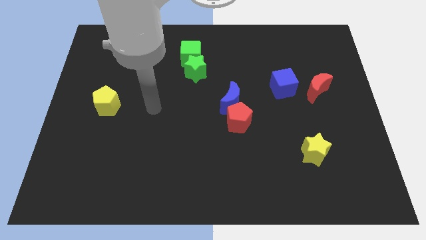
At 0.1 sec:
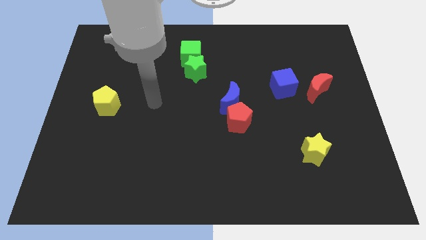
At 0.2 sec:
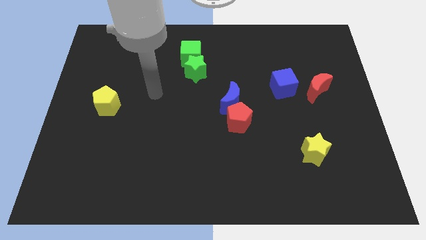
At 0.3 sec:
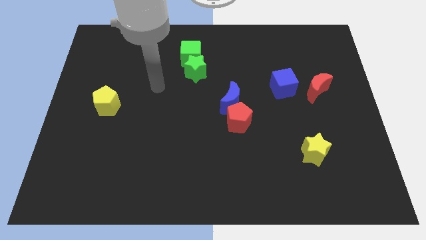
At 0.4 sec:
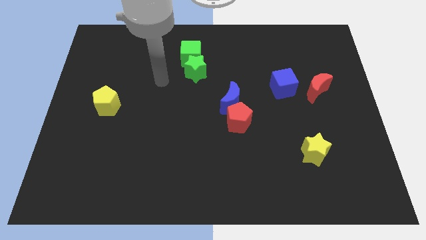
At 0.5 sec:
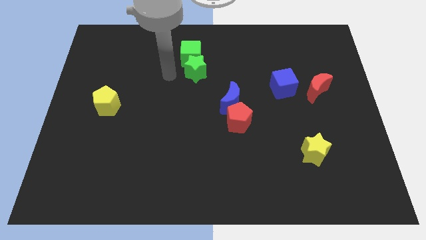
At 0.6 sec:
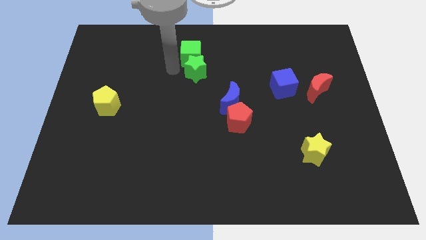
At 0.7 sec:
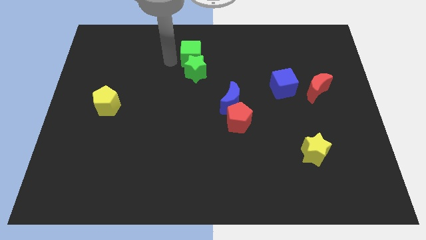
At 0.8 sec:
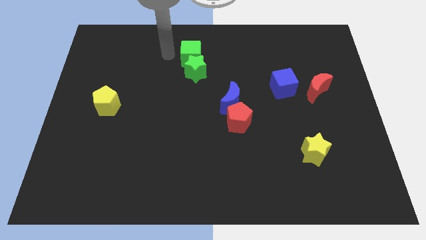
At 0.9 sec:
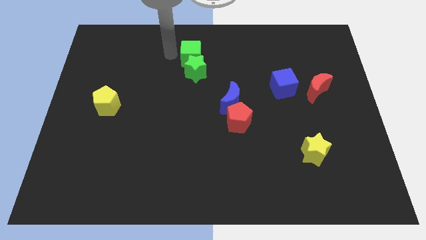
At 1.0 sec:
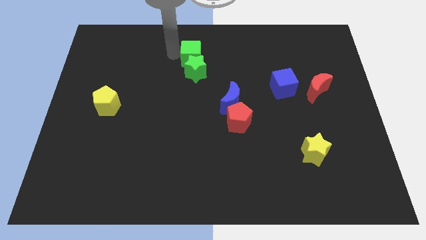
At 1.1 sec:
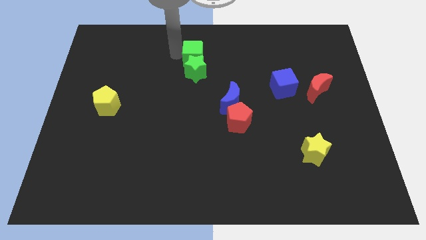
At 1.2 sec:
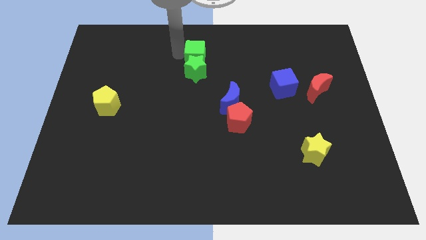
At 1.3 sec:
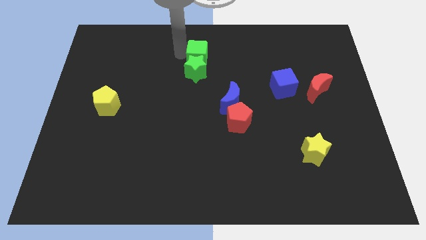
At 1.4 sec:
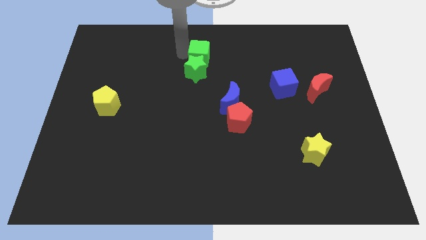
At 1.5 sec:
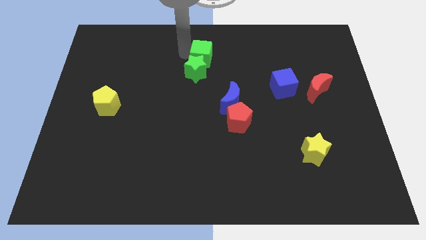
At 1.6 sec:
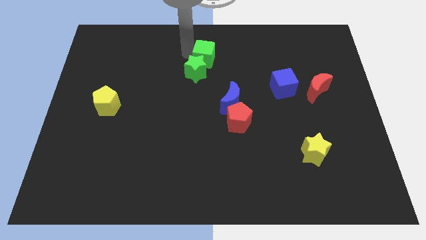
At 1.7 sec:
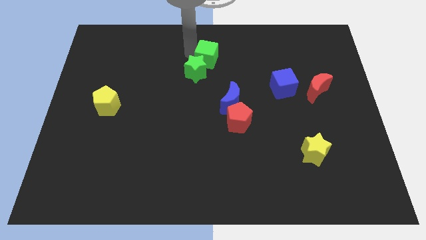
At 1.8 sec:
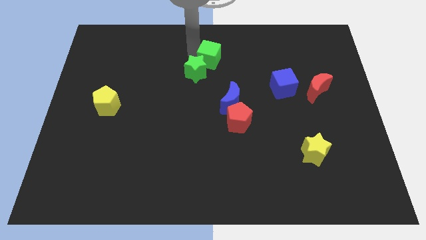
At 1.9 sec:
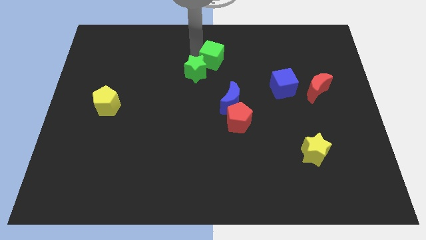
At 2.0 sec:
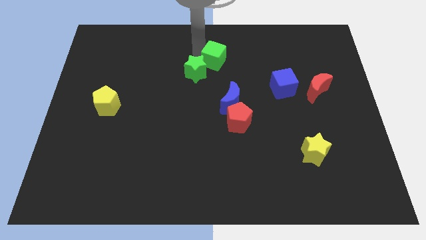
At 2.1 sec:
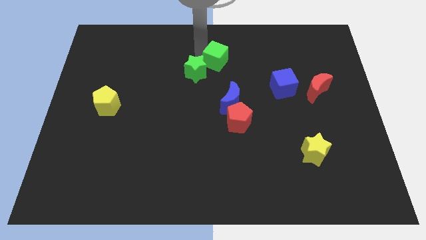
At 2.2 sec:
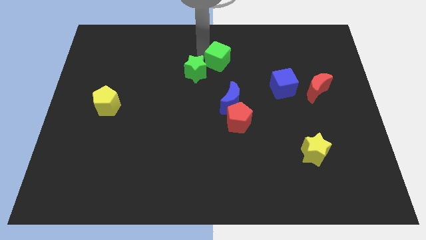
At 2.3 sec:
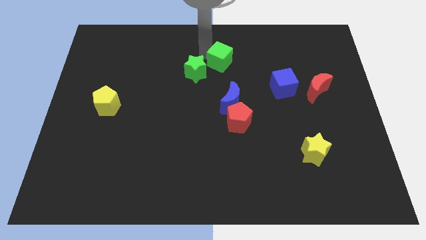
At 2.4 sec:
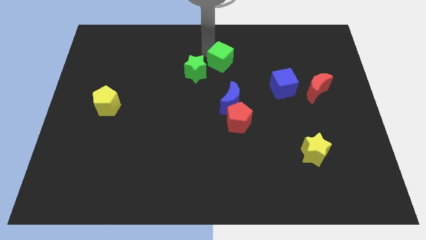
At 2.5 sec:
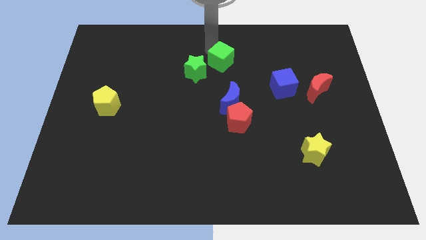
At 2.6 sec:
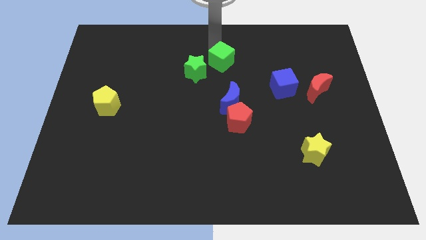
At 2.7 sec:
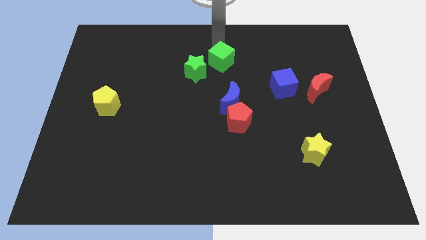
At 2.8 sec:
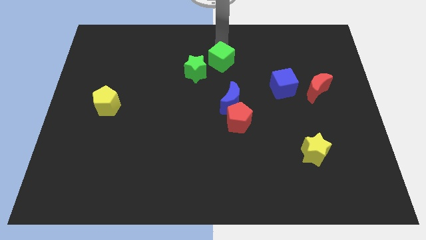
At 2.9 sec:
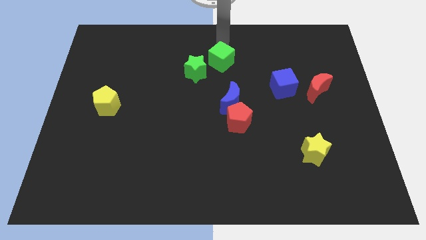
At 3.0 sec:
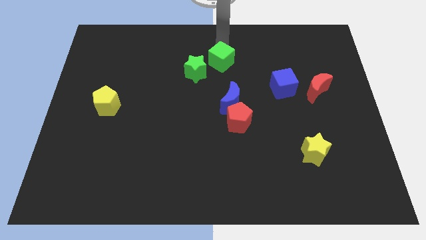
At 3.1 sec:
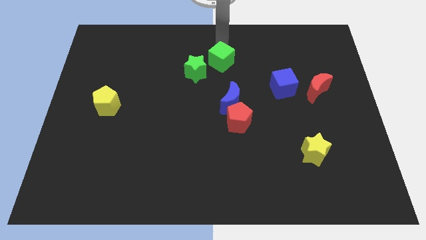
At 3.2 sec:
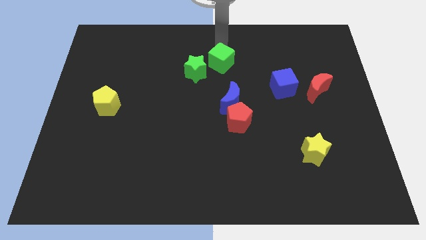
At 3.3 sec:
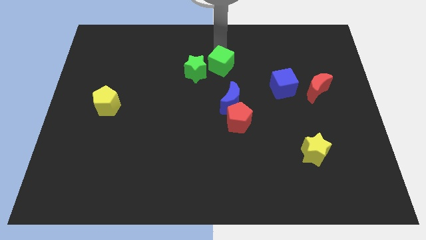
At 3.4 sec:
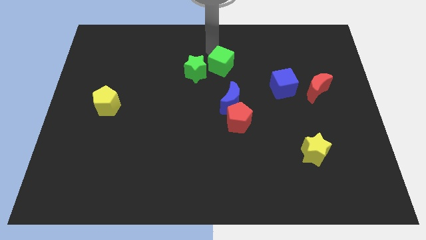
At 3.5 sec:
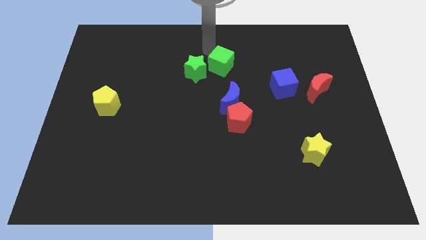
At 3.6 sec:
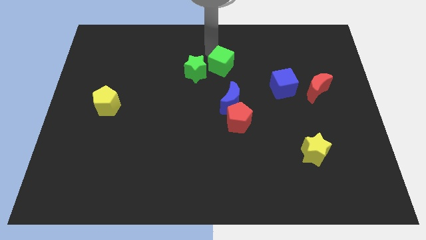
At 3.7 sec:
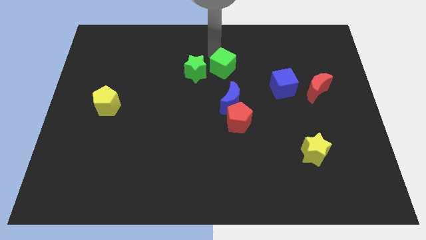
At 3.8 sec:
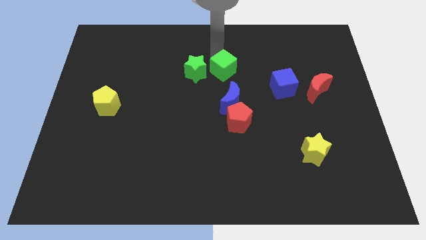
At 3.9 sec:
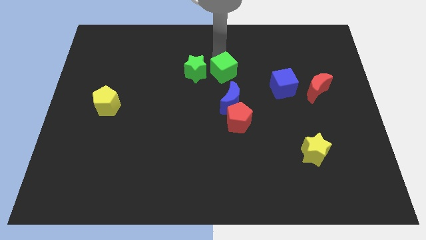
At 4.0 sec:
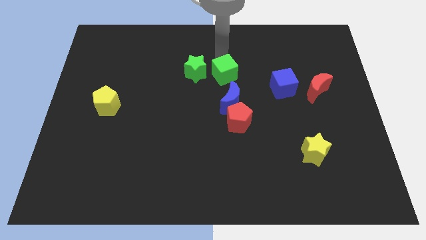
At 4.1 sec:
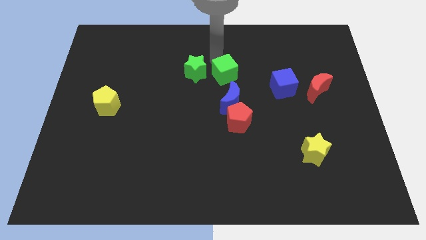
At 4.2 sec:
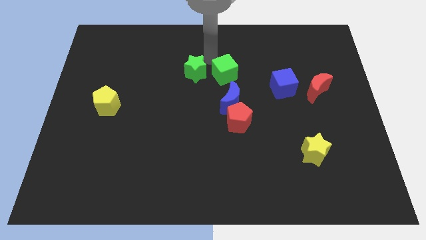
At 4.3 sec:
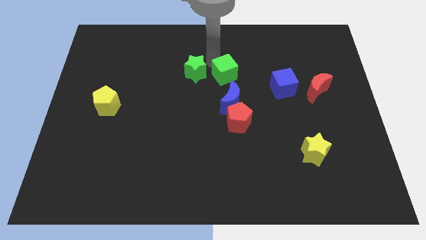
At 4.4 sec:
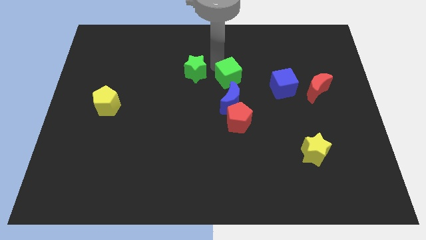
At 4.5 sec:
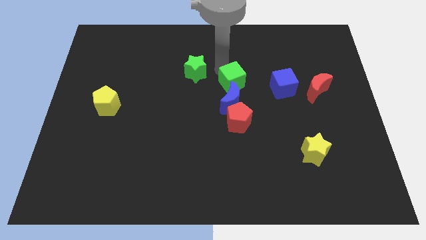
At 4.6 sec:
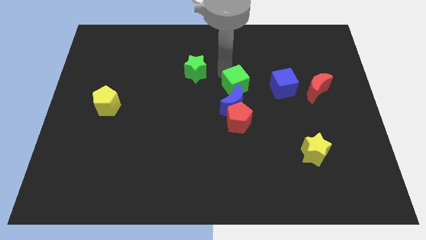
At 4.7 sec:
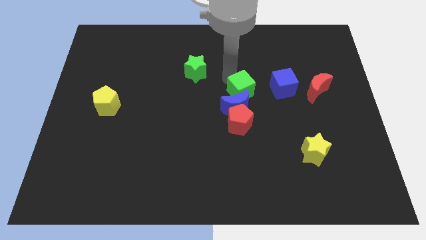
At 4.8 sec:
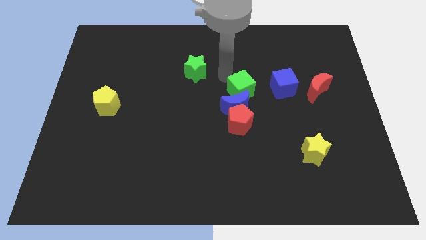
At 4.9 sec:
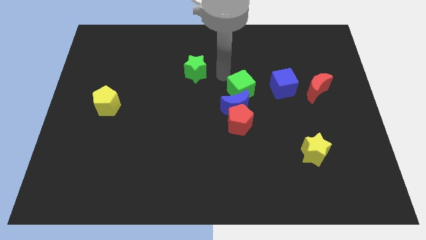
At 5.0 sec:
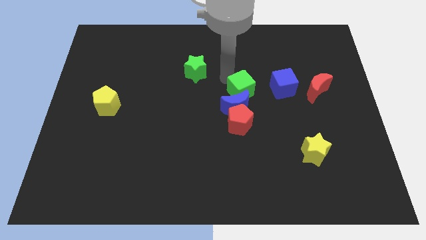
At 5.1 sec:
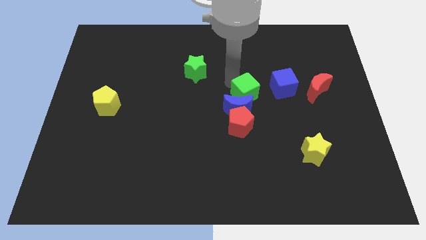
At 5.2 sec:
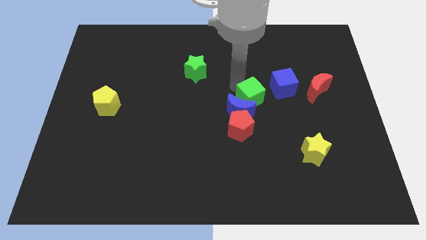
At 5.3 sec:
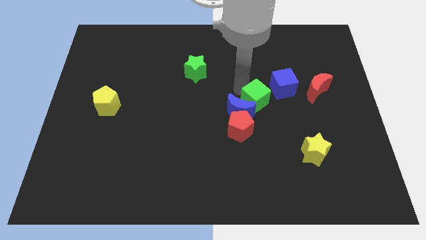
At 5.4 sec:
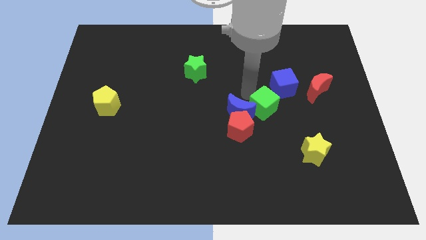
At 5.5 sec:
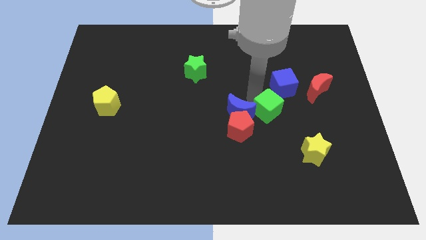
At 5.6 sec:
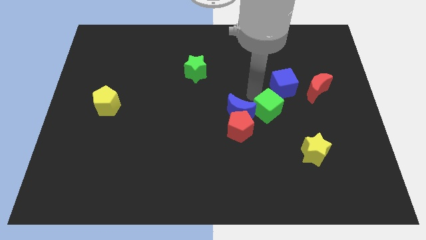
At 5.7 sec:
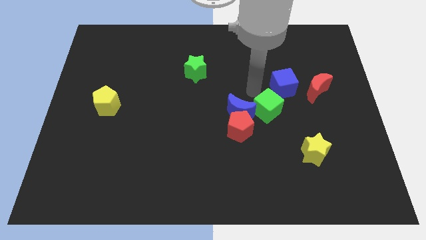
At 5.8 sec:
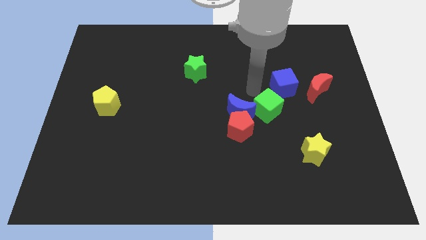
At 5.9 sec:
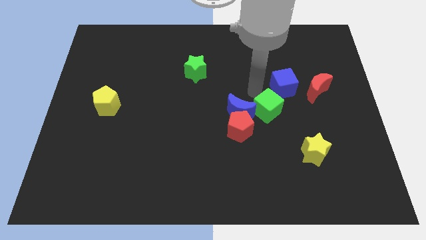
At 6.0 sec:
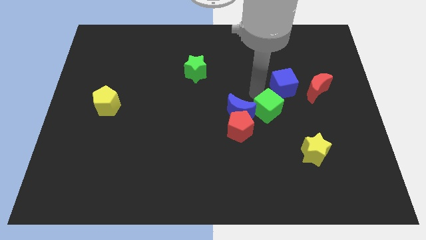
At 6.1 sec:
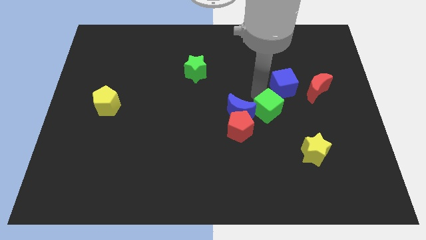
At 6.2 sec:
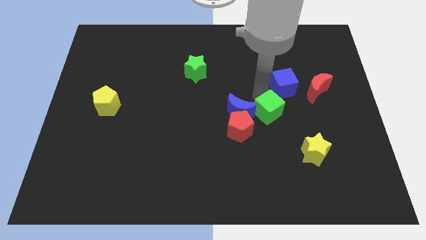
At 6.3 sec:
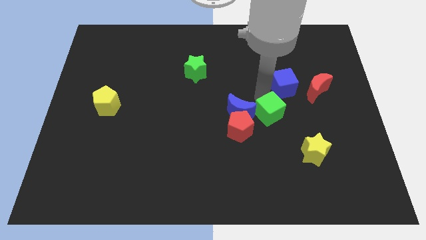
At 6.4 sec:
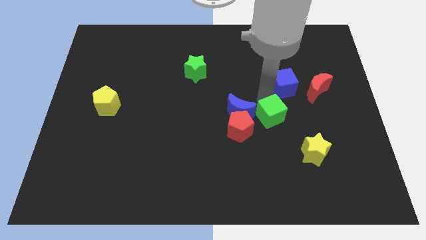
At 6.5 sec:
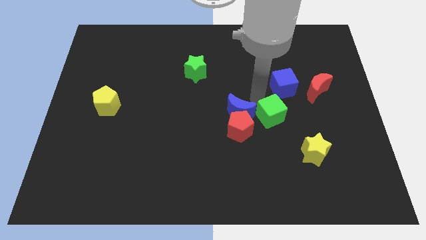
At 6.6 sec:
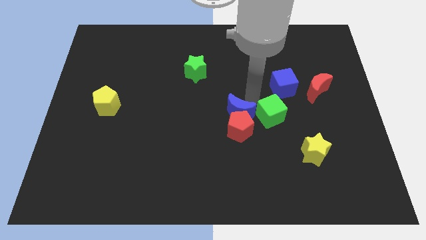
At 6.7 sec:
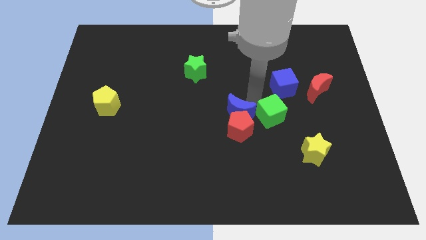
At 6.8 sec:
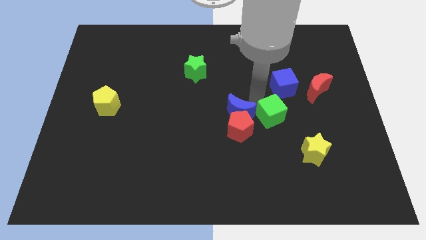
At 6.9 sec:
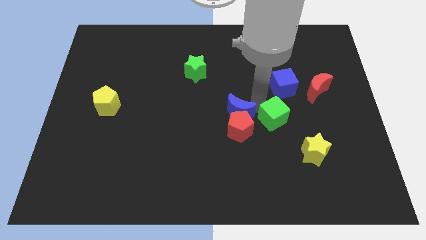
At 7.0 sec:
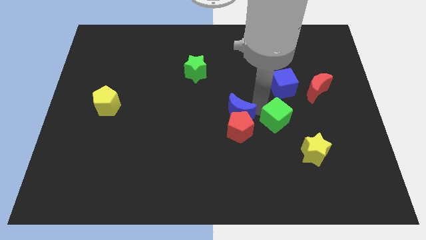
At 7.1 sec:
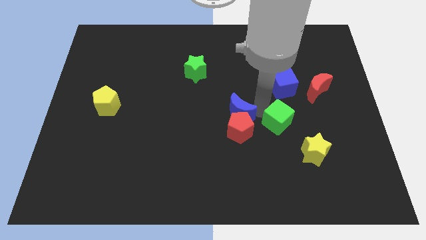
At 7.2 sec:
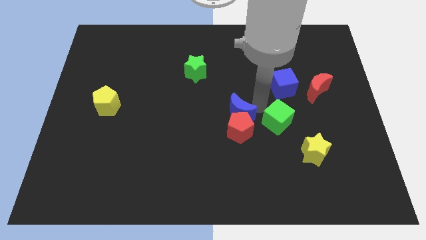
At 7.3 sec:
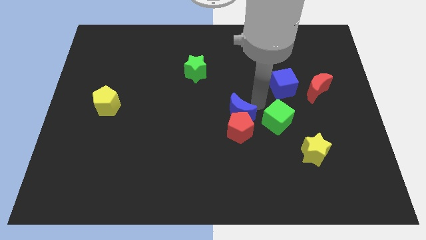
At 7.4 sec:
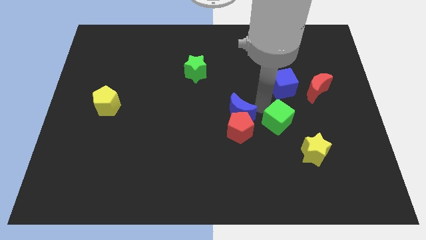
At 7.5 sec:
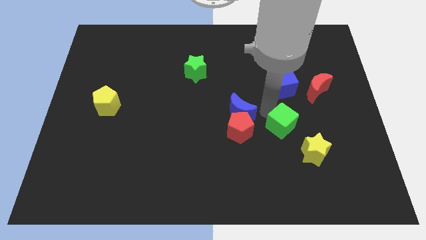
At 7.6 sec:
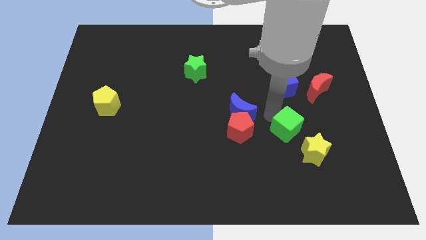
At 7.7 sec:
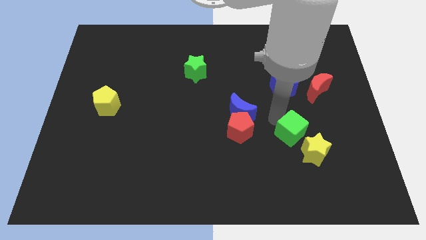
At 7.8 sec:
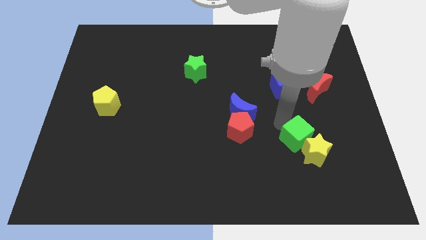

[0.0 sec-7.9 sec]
slide the green cube towards the yellow star
